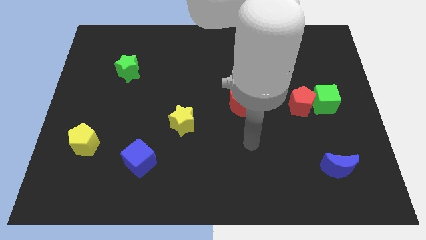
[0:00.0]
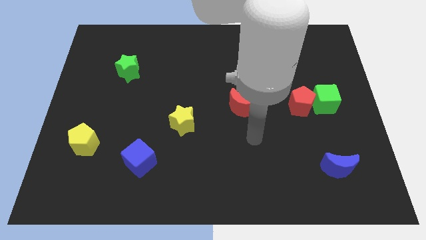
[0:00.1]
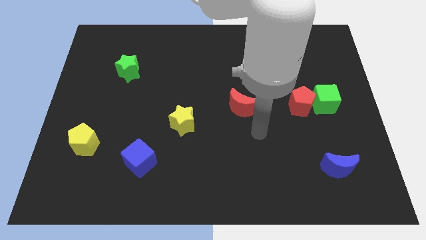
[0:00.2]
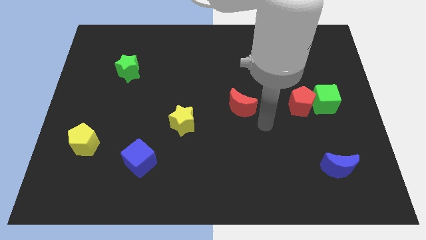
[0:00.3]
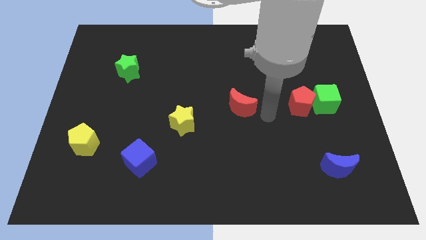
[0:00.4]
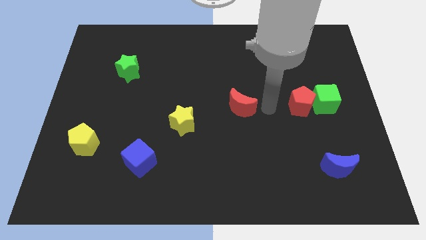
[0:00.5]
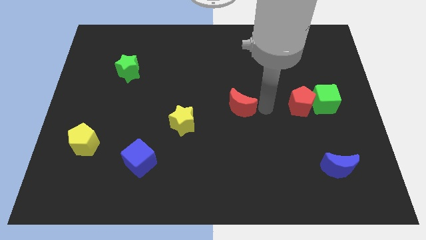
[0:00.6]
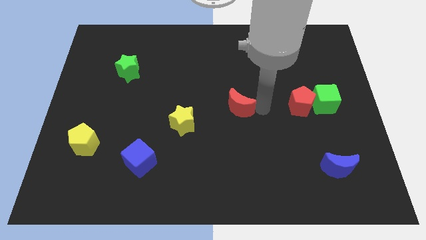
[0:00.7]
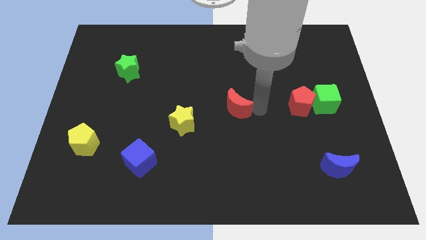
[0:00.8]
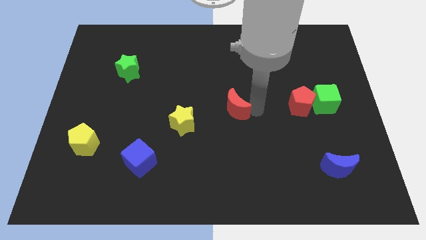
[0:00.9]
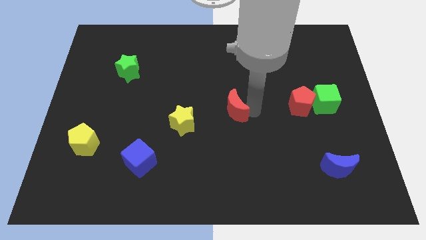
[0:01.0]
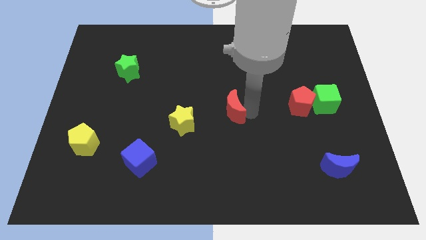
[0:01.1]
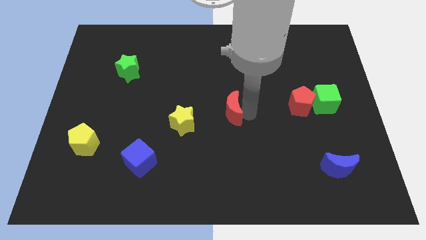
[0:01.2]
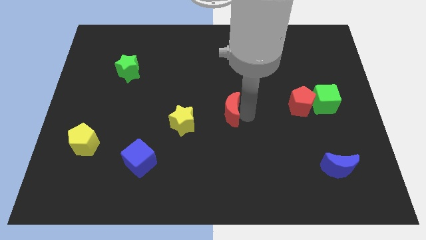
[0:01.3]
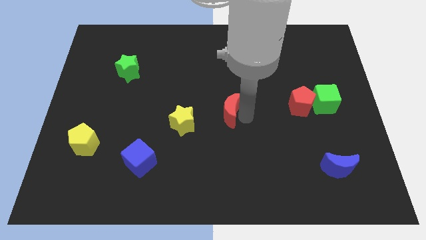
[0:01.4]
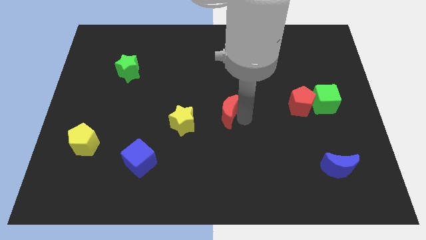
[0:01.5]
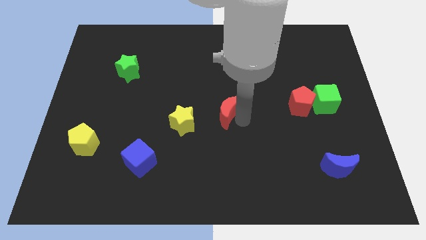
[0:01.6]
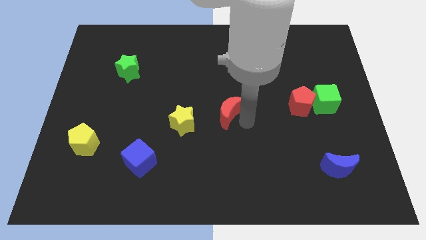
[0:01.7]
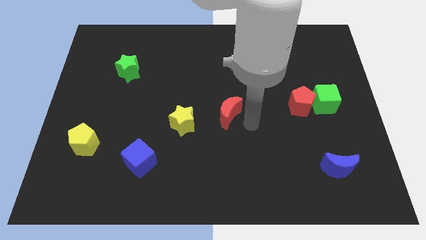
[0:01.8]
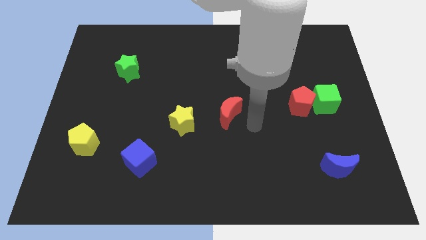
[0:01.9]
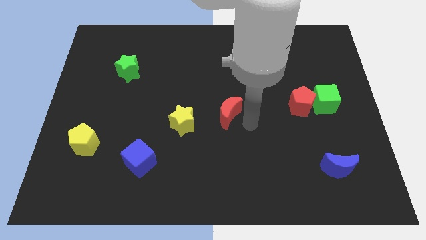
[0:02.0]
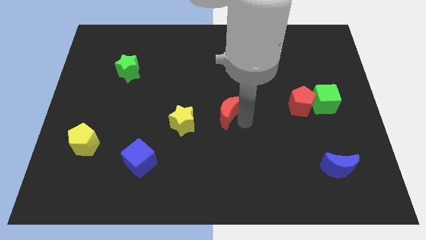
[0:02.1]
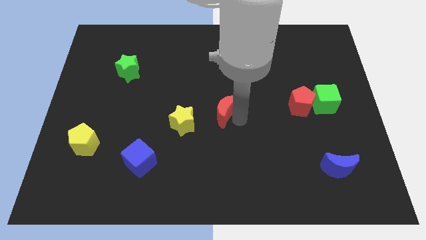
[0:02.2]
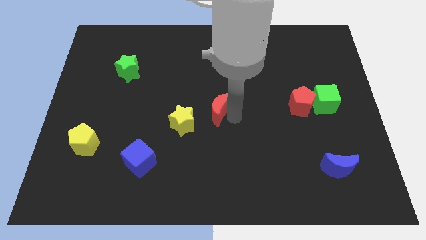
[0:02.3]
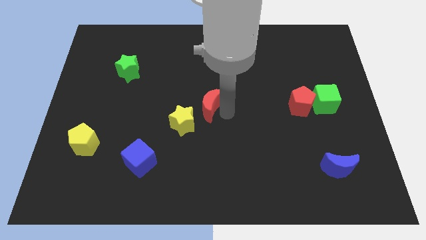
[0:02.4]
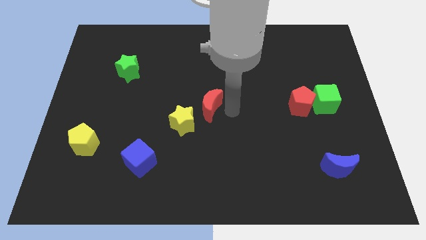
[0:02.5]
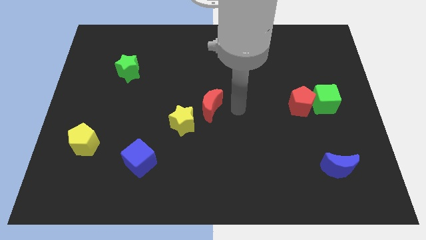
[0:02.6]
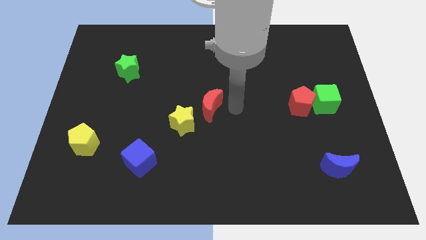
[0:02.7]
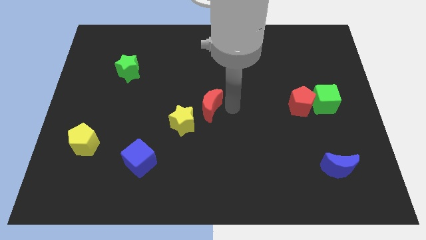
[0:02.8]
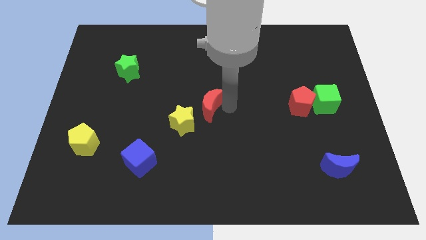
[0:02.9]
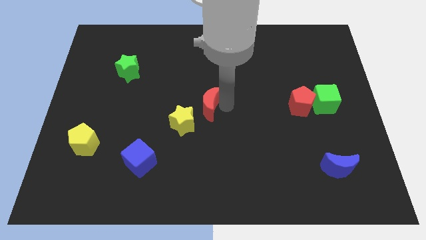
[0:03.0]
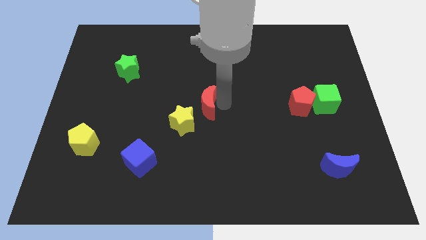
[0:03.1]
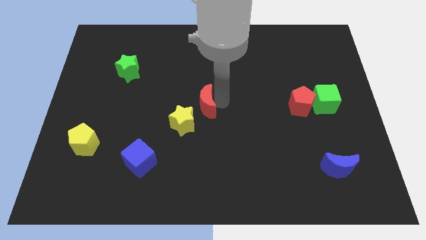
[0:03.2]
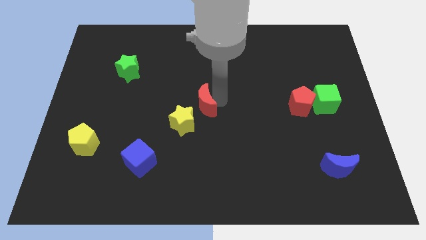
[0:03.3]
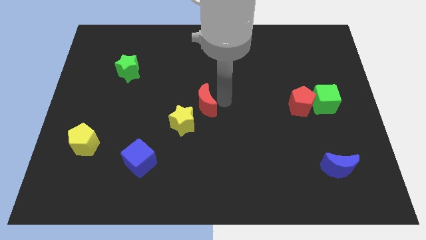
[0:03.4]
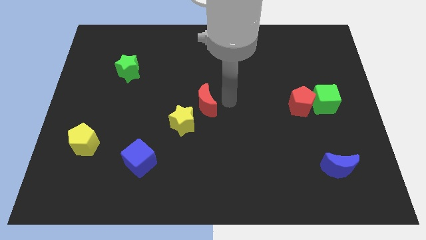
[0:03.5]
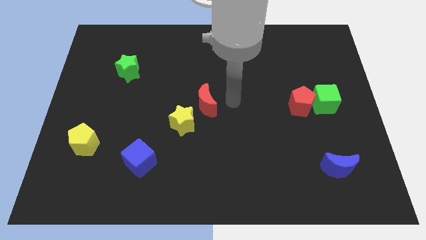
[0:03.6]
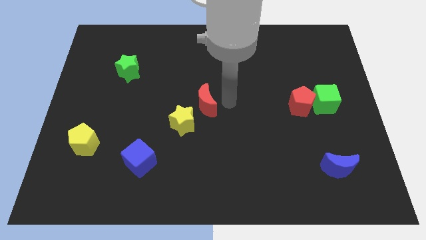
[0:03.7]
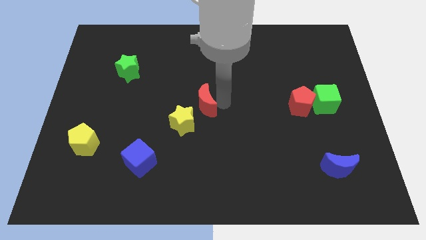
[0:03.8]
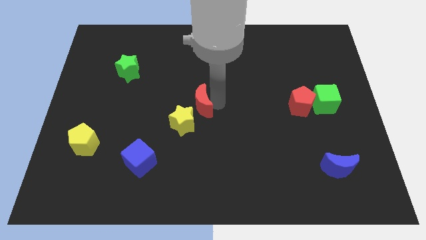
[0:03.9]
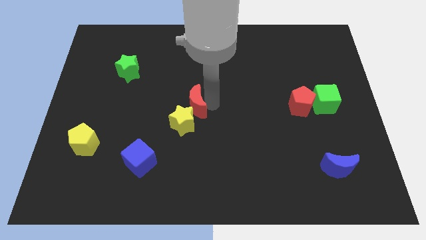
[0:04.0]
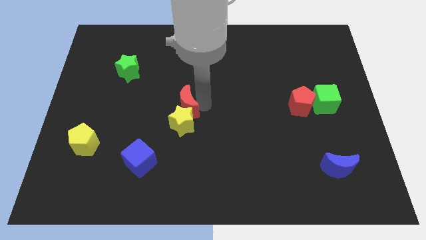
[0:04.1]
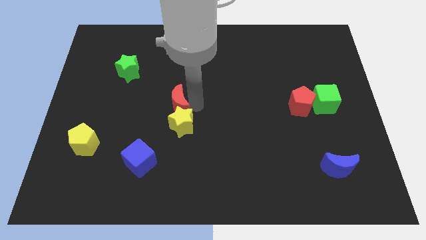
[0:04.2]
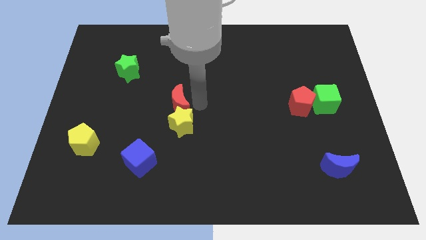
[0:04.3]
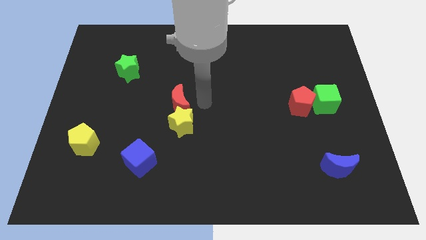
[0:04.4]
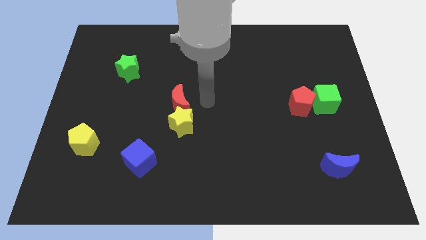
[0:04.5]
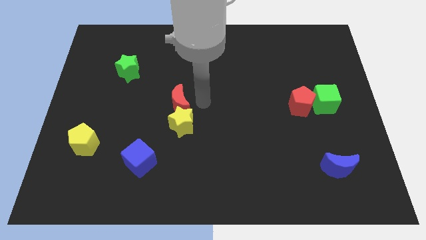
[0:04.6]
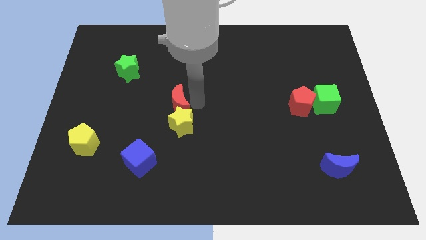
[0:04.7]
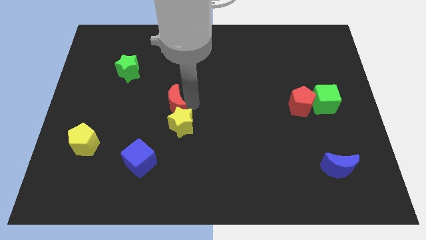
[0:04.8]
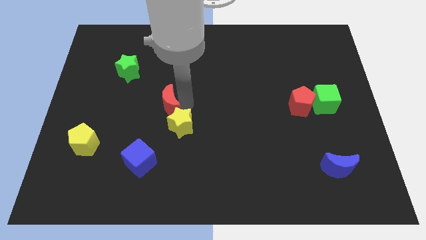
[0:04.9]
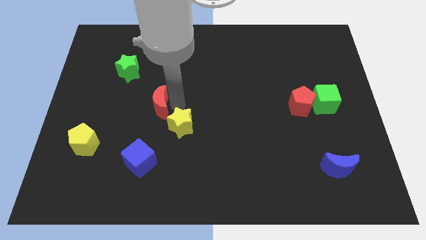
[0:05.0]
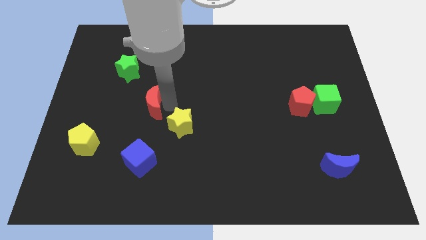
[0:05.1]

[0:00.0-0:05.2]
move the red moon to the left

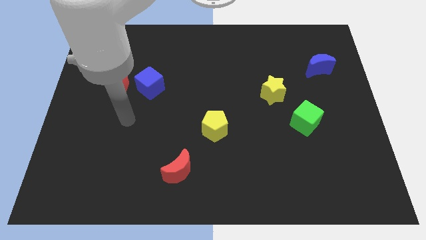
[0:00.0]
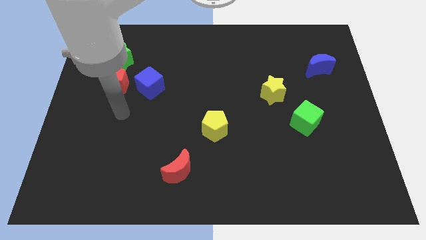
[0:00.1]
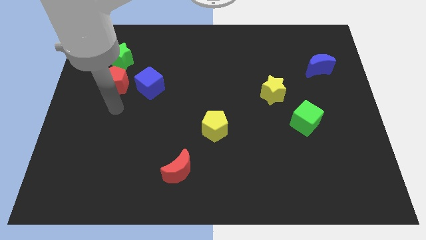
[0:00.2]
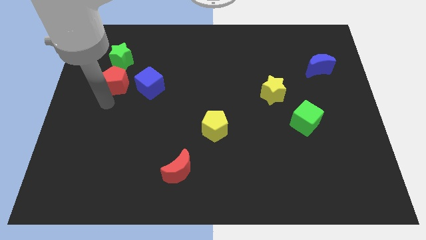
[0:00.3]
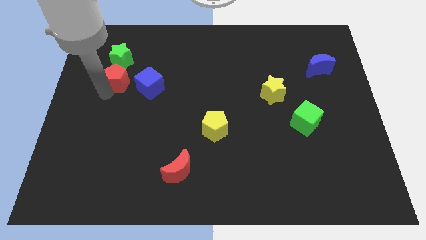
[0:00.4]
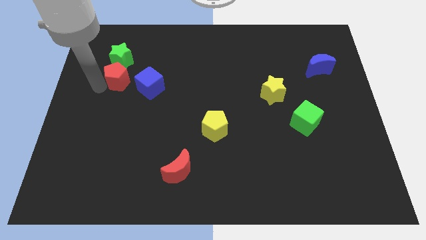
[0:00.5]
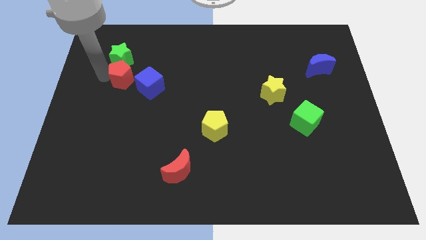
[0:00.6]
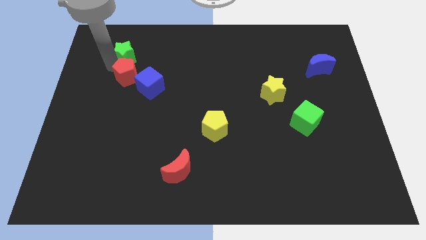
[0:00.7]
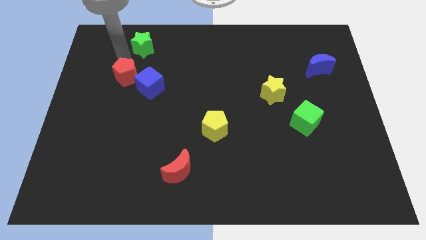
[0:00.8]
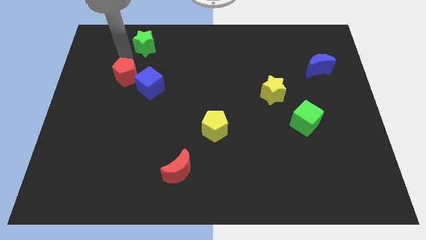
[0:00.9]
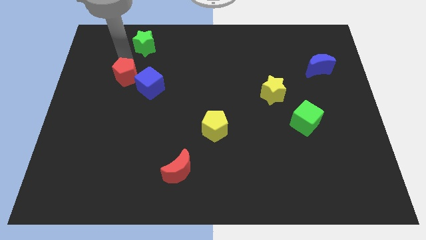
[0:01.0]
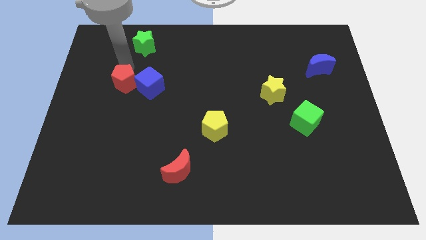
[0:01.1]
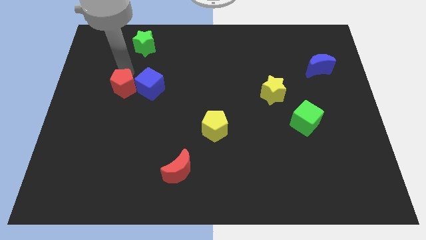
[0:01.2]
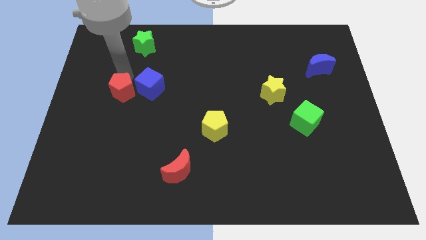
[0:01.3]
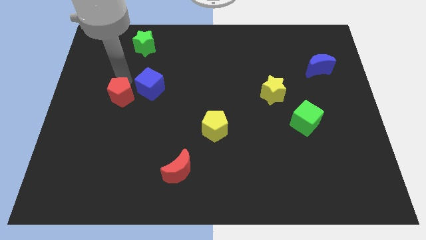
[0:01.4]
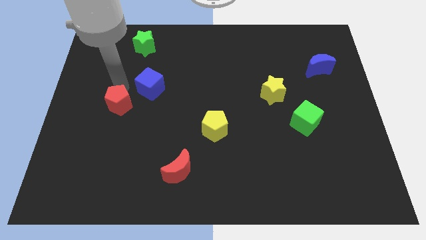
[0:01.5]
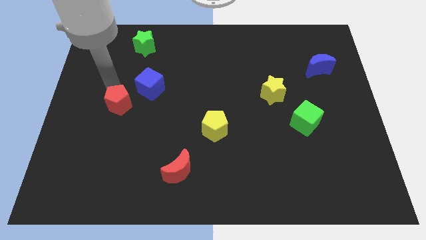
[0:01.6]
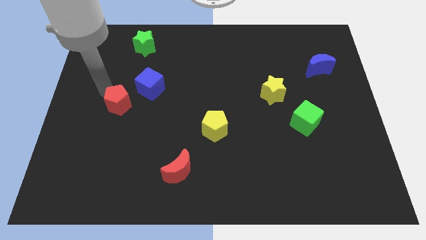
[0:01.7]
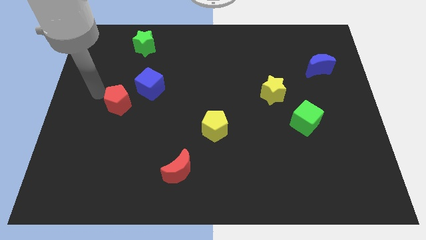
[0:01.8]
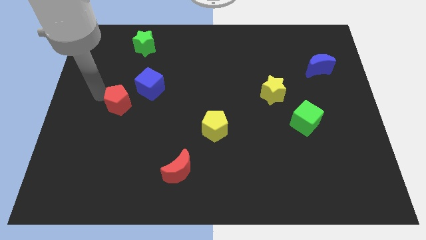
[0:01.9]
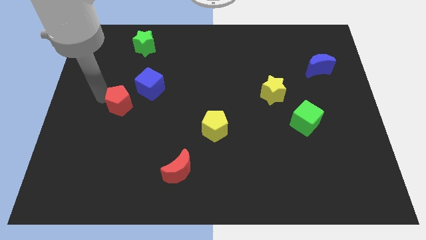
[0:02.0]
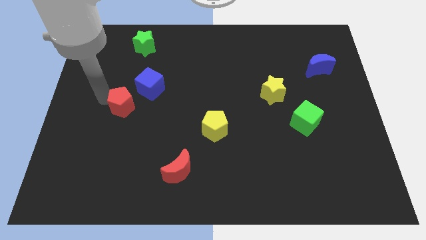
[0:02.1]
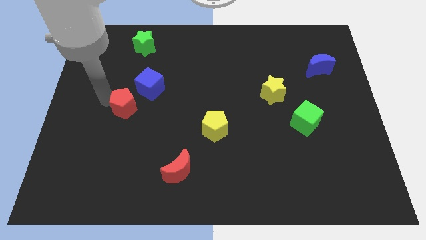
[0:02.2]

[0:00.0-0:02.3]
push the red pentagon a little downwards and then to the right

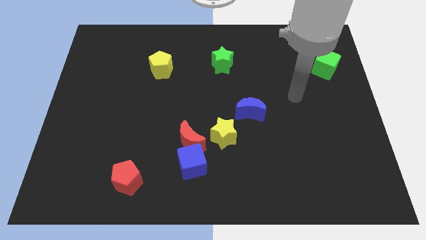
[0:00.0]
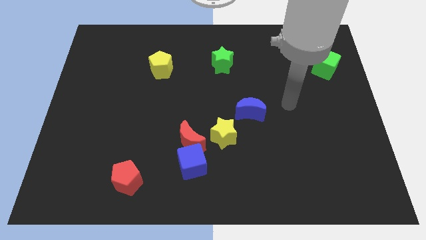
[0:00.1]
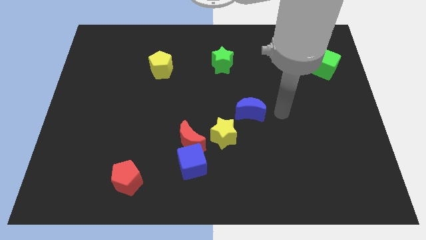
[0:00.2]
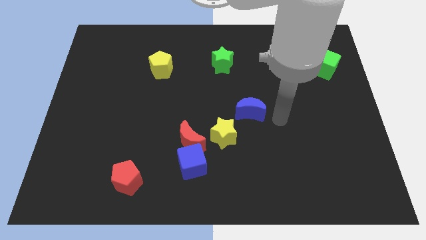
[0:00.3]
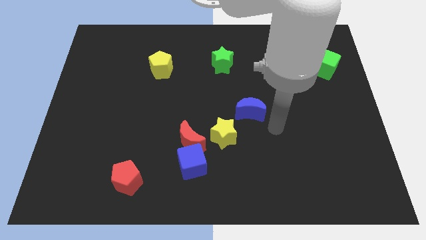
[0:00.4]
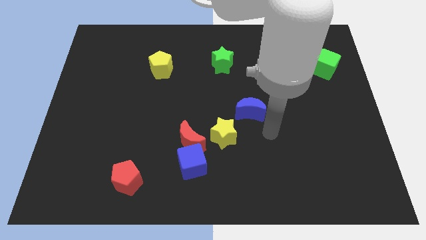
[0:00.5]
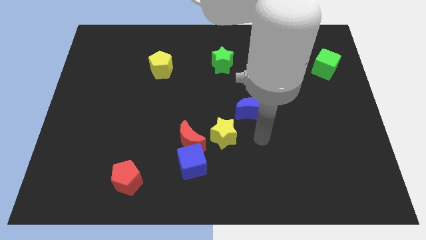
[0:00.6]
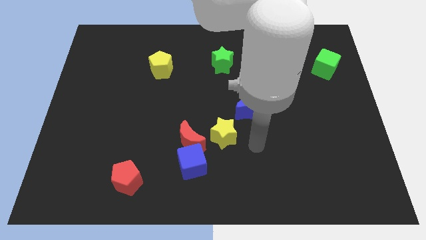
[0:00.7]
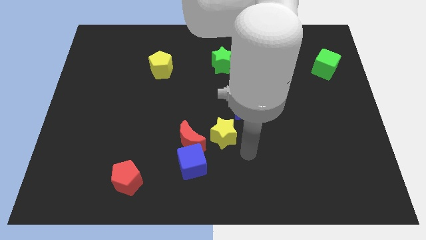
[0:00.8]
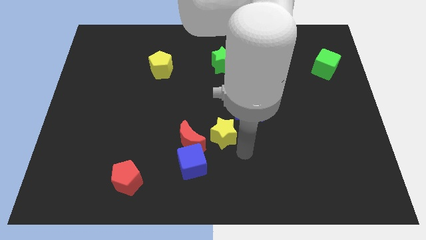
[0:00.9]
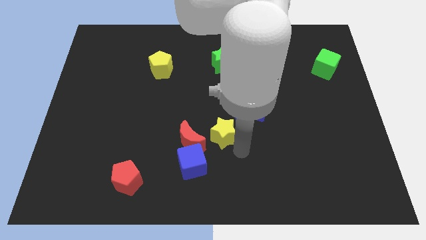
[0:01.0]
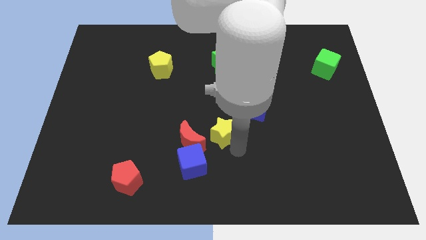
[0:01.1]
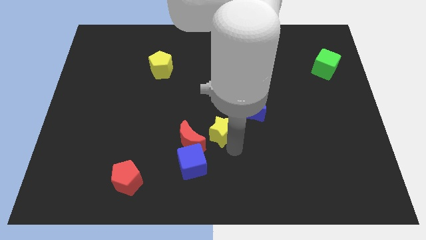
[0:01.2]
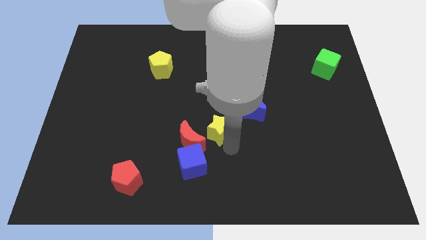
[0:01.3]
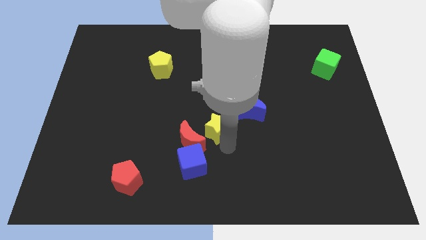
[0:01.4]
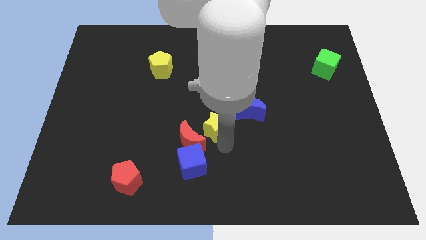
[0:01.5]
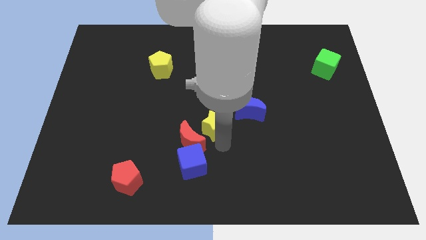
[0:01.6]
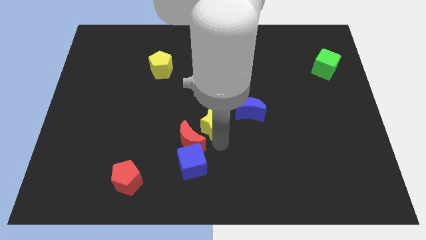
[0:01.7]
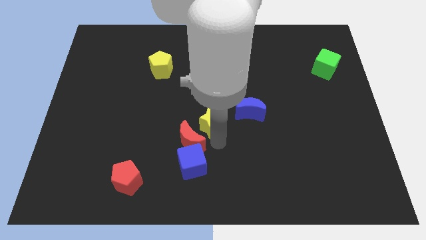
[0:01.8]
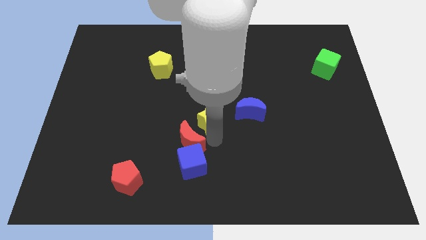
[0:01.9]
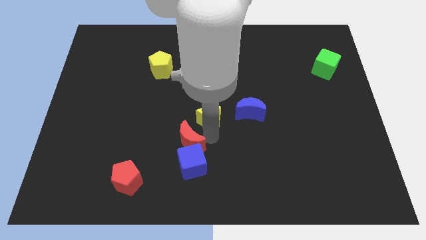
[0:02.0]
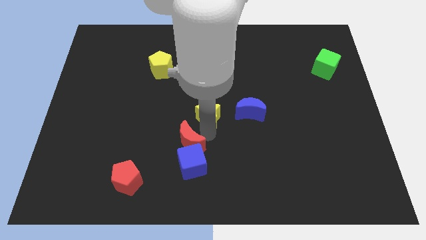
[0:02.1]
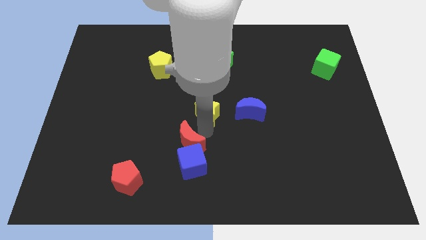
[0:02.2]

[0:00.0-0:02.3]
slightly push the yellow star upwards and to the left
